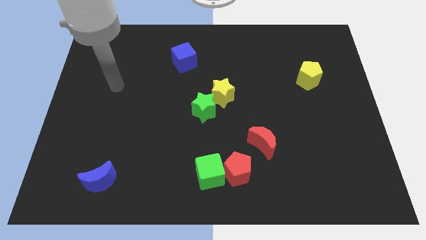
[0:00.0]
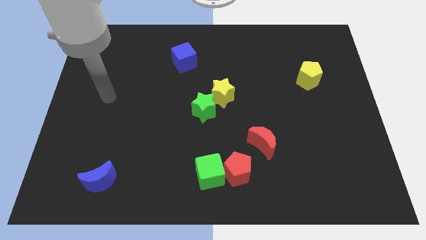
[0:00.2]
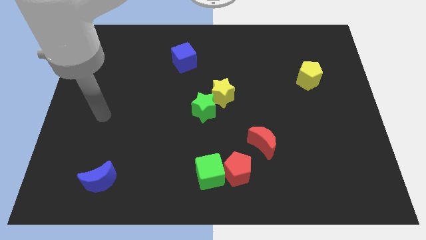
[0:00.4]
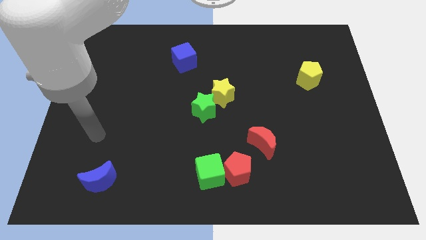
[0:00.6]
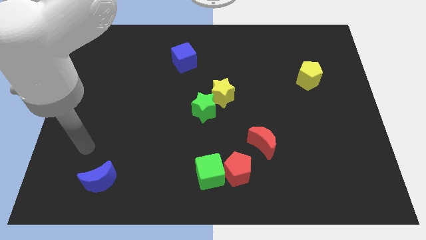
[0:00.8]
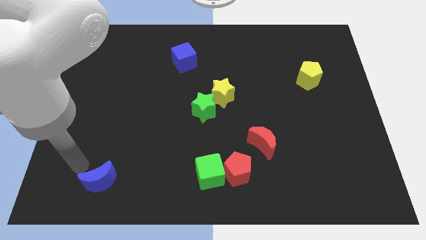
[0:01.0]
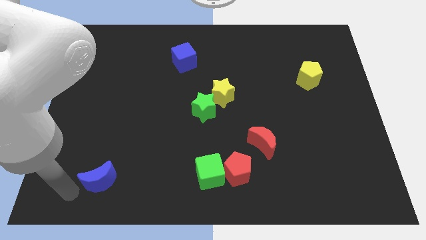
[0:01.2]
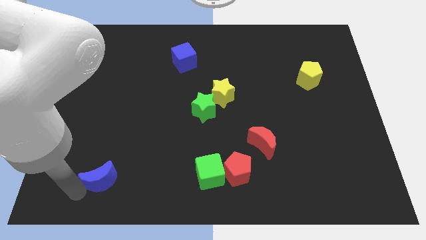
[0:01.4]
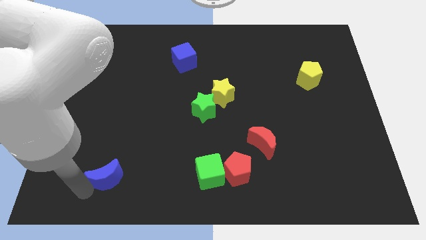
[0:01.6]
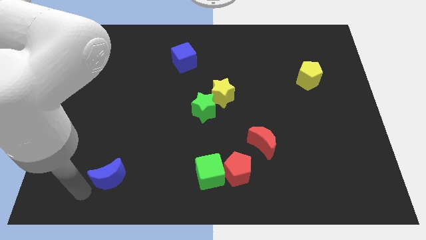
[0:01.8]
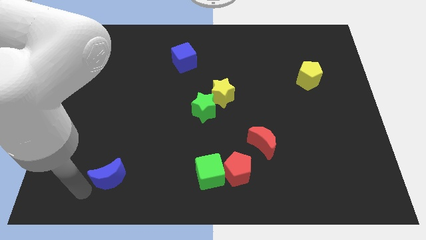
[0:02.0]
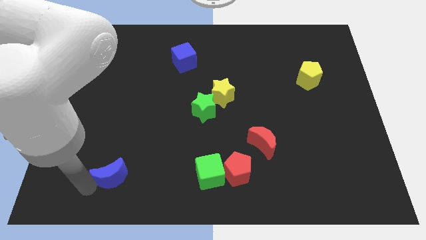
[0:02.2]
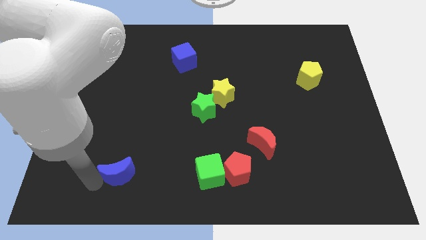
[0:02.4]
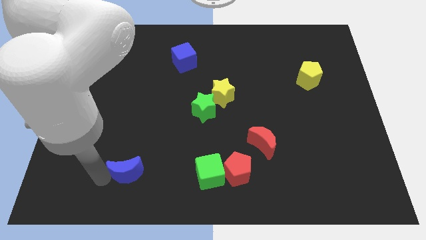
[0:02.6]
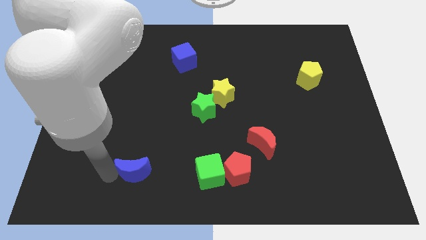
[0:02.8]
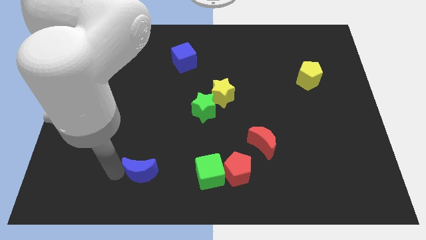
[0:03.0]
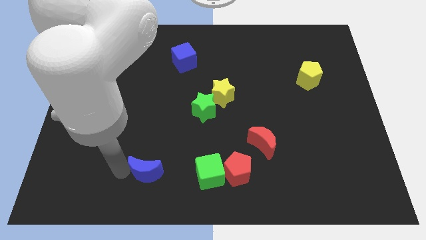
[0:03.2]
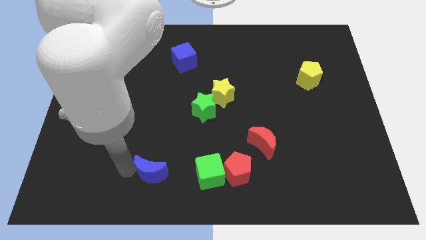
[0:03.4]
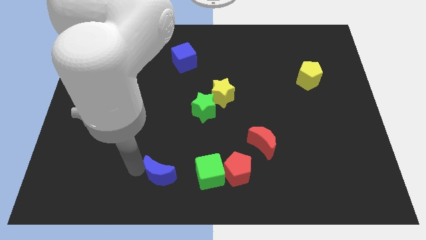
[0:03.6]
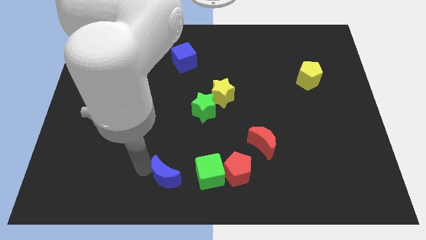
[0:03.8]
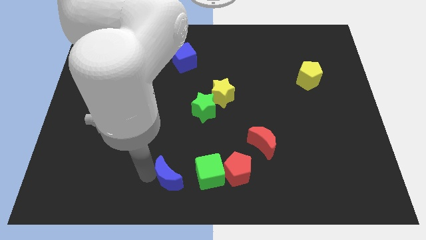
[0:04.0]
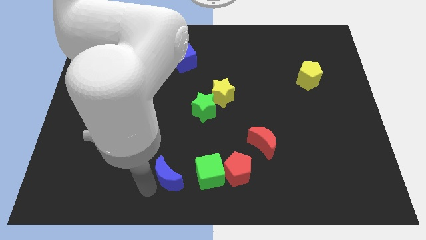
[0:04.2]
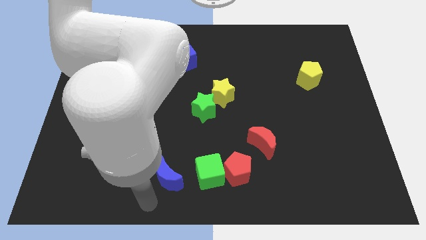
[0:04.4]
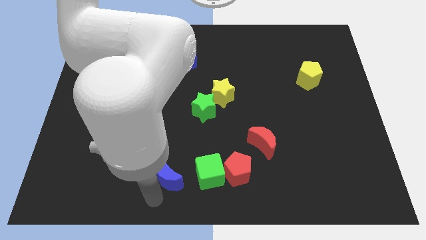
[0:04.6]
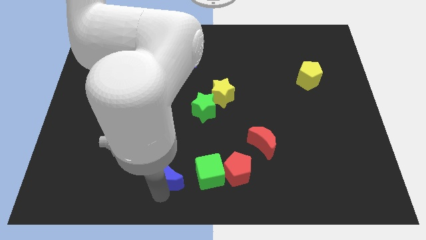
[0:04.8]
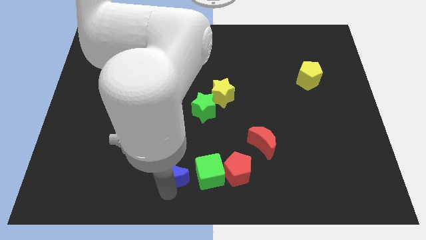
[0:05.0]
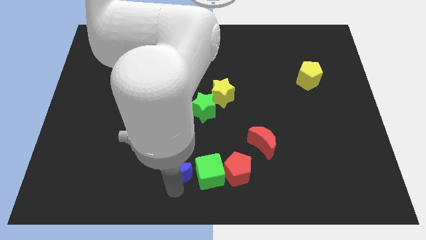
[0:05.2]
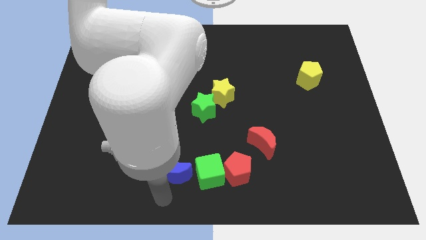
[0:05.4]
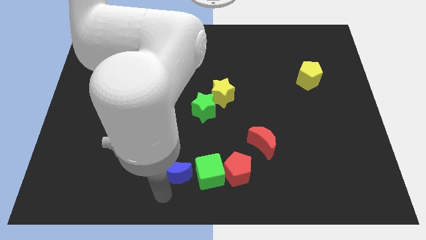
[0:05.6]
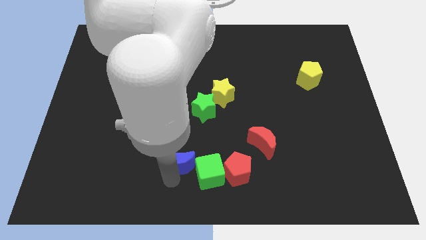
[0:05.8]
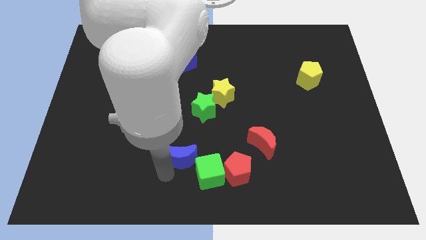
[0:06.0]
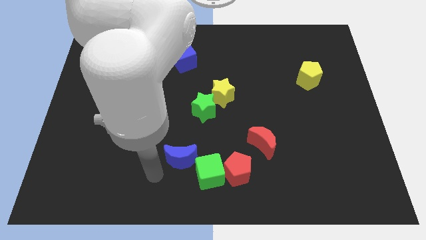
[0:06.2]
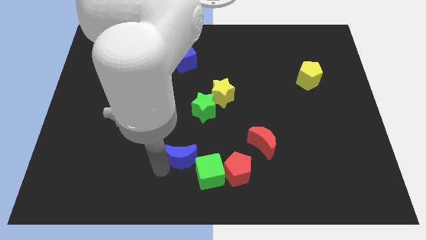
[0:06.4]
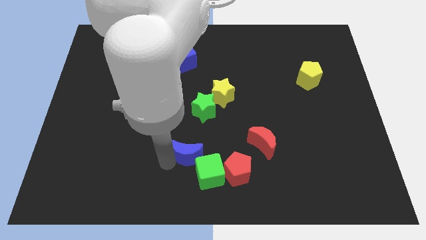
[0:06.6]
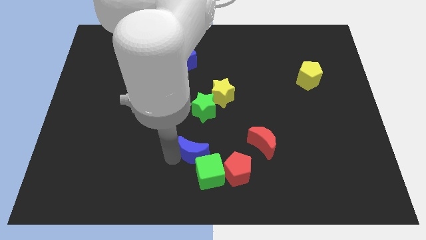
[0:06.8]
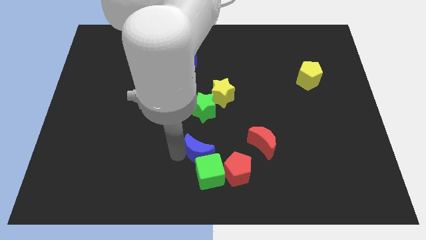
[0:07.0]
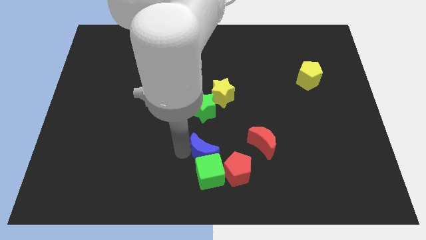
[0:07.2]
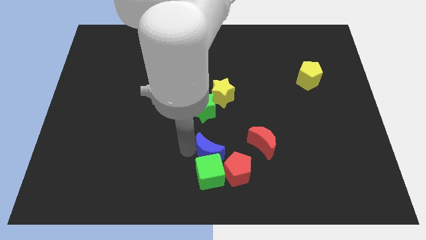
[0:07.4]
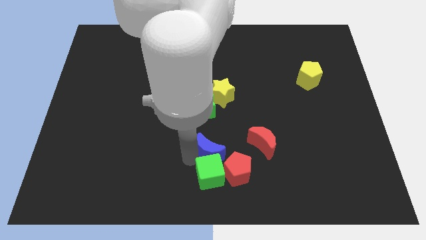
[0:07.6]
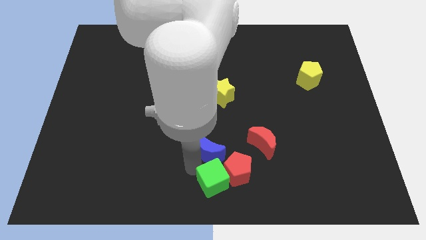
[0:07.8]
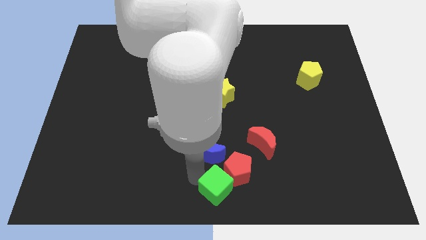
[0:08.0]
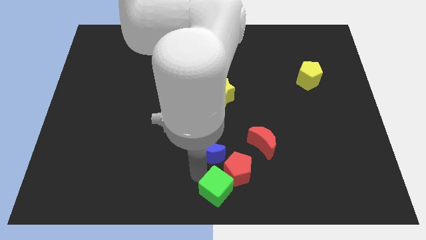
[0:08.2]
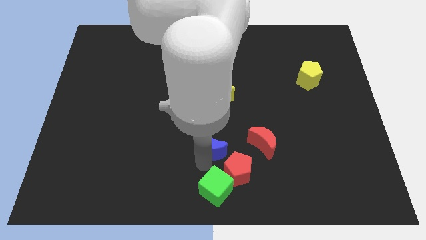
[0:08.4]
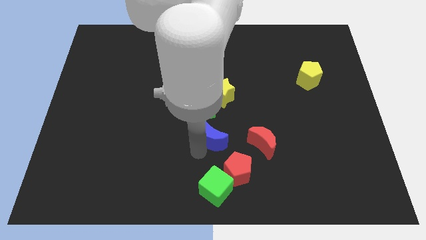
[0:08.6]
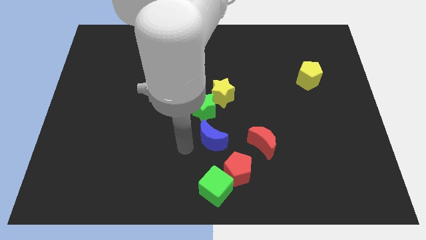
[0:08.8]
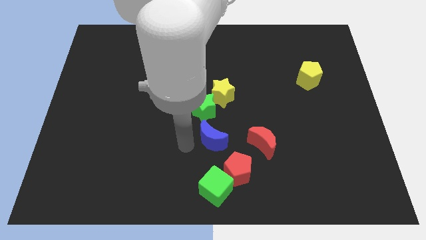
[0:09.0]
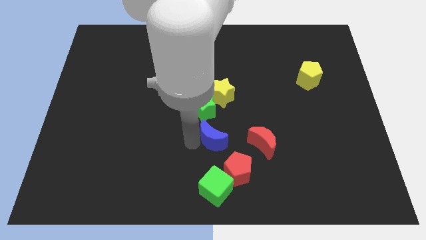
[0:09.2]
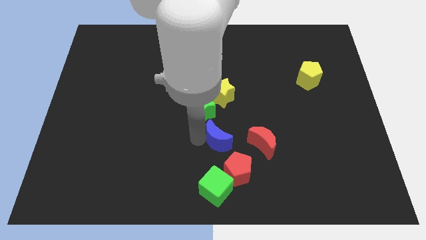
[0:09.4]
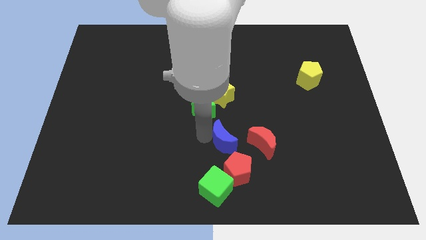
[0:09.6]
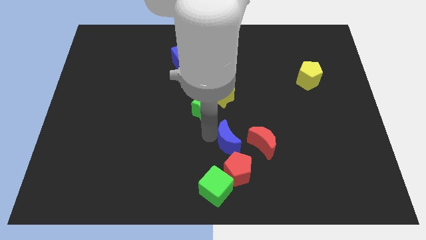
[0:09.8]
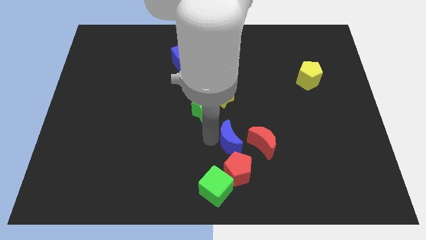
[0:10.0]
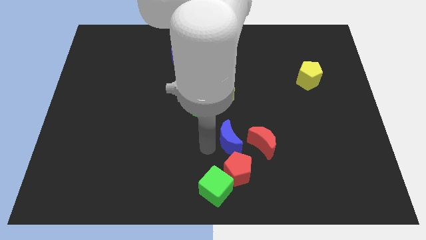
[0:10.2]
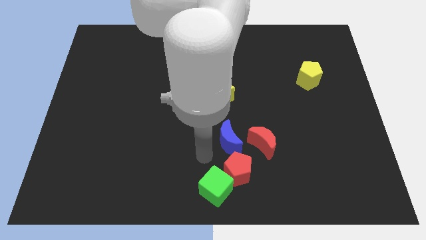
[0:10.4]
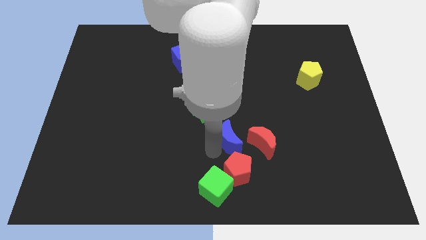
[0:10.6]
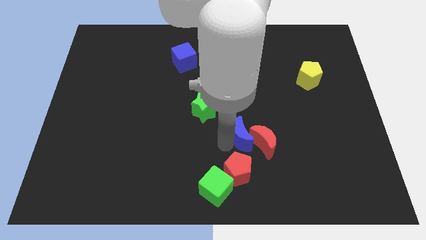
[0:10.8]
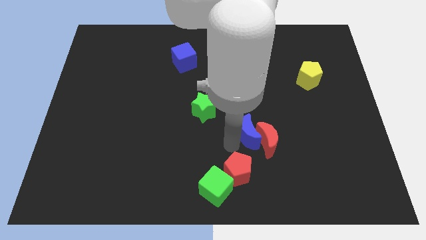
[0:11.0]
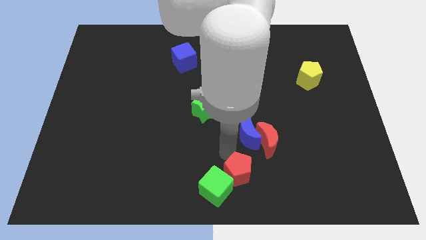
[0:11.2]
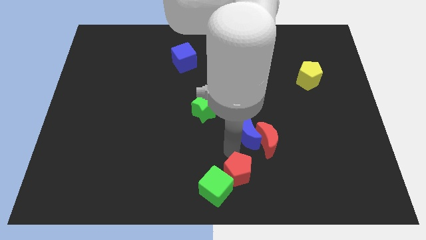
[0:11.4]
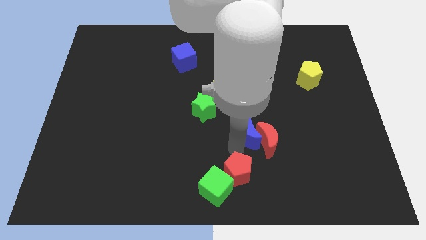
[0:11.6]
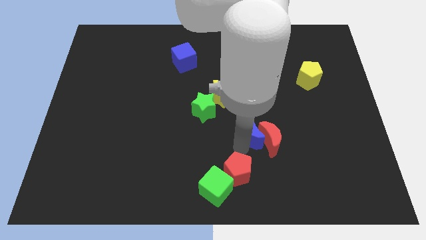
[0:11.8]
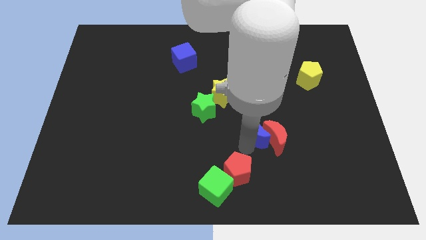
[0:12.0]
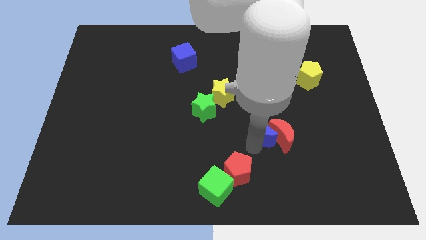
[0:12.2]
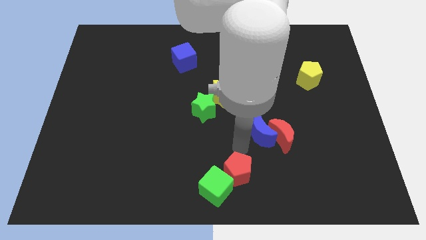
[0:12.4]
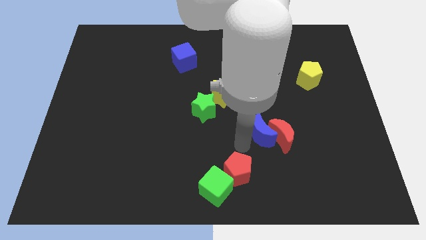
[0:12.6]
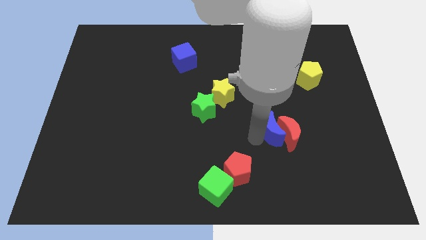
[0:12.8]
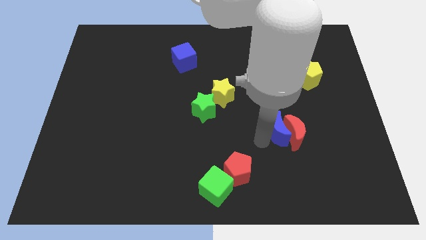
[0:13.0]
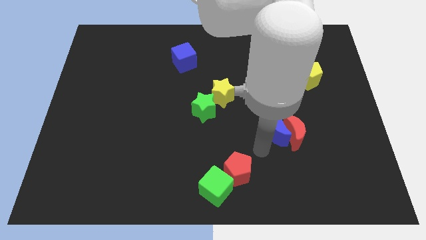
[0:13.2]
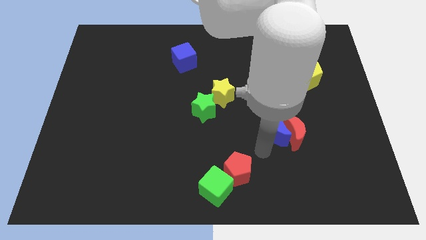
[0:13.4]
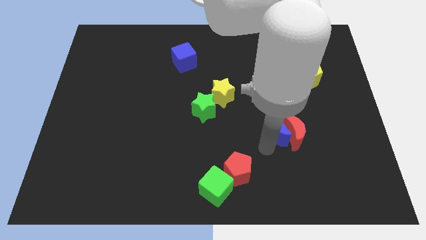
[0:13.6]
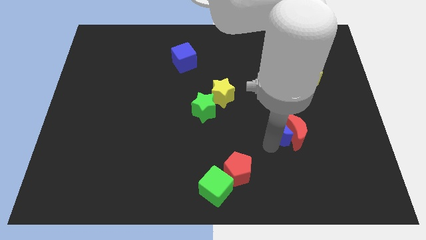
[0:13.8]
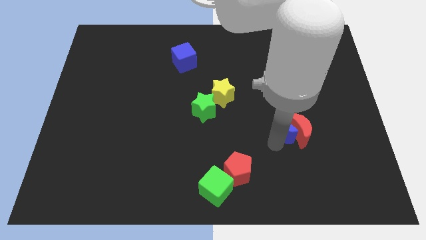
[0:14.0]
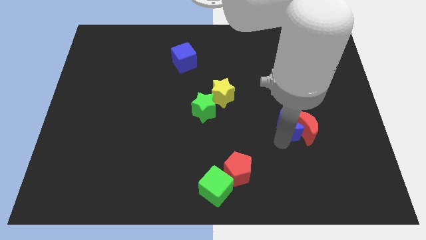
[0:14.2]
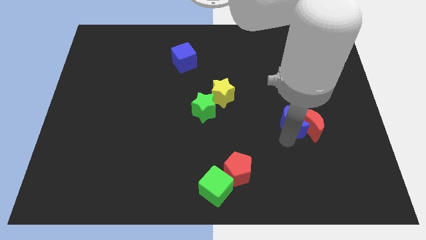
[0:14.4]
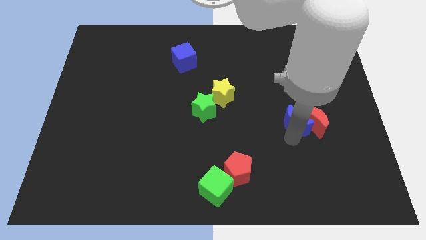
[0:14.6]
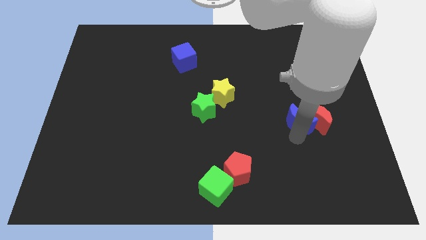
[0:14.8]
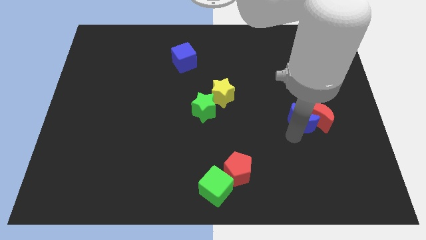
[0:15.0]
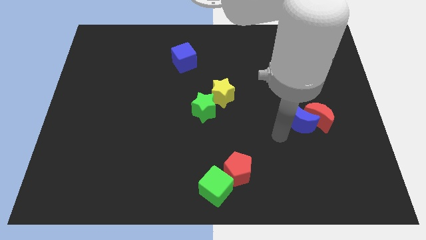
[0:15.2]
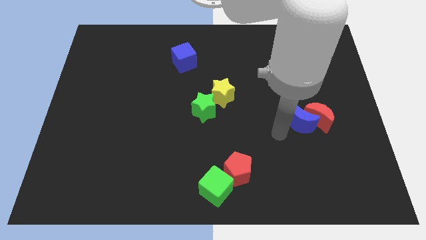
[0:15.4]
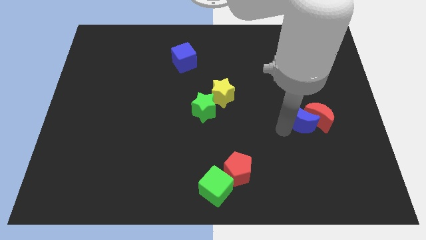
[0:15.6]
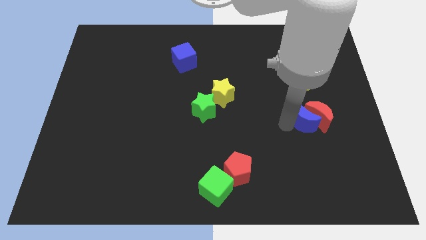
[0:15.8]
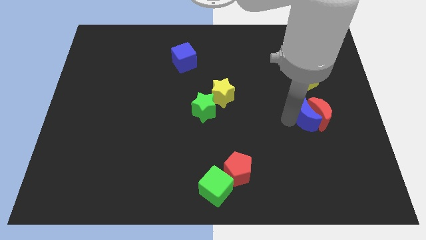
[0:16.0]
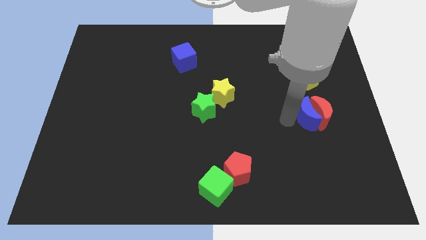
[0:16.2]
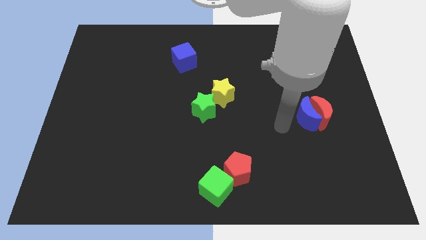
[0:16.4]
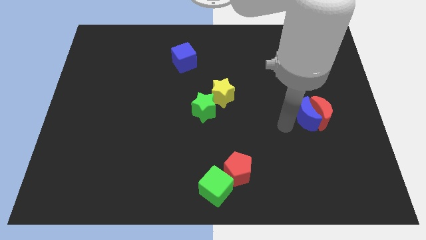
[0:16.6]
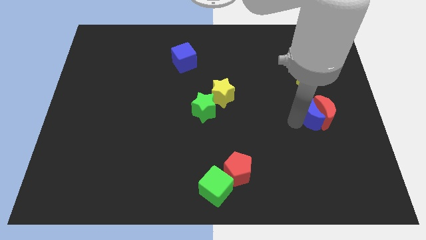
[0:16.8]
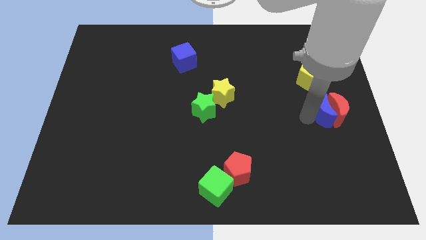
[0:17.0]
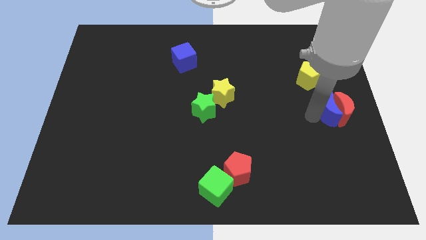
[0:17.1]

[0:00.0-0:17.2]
put the blue moon to the center right
